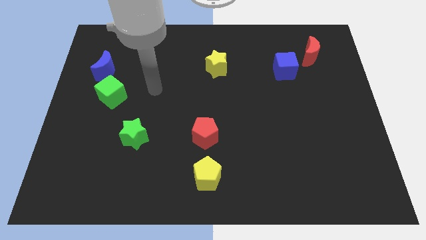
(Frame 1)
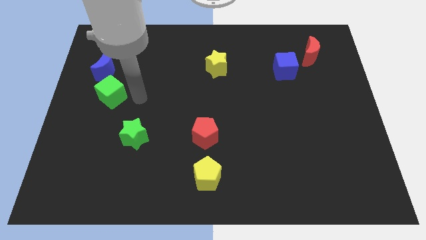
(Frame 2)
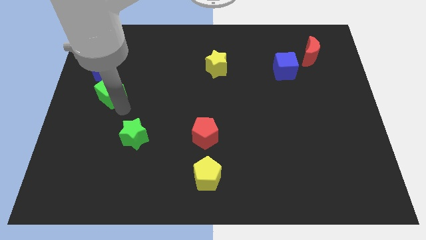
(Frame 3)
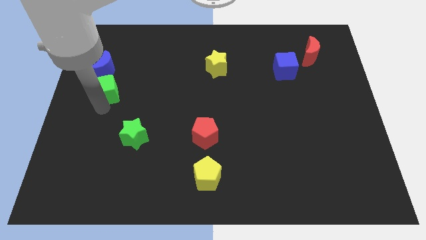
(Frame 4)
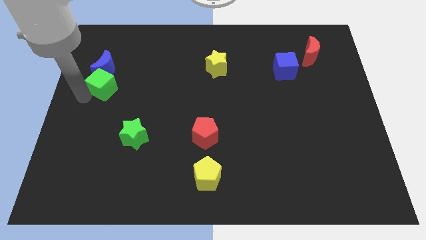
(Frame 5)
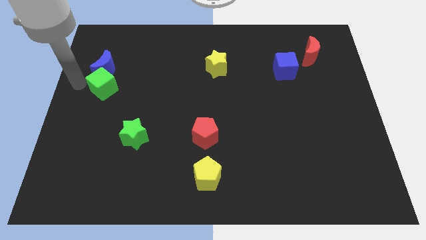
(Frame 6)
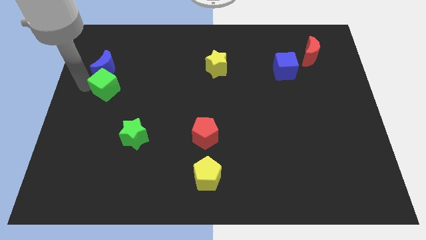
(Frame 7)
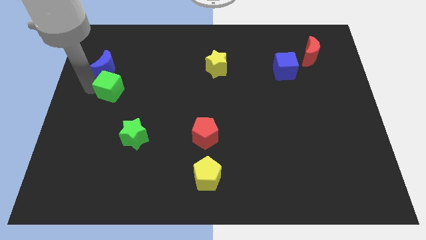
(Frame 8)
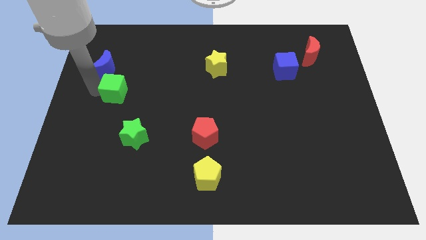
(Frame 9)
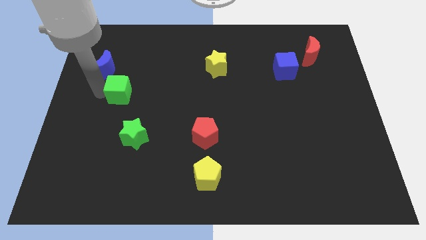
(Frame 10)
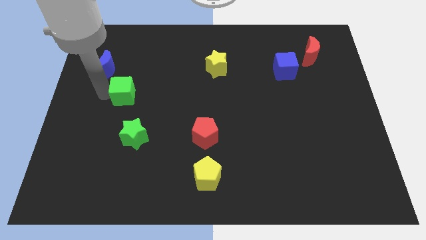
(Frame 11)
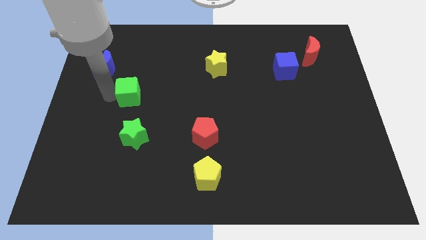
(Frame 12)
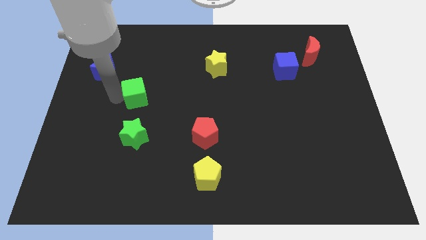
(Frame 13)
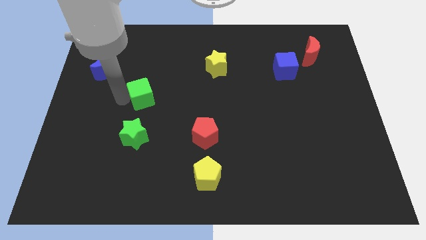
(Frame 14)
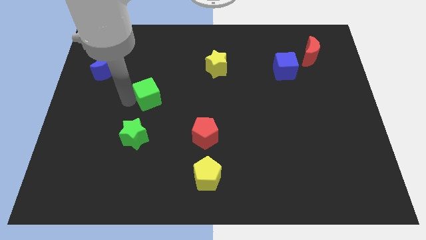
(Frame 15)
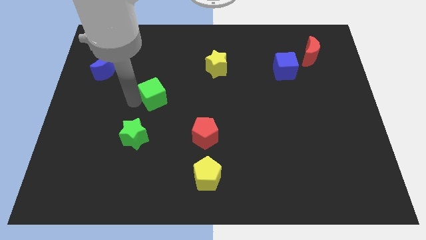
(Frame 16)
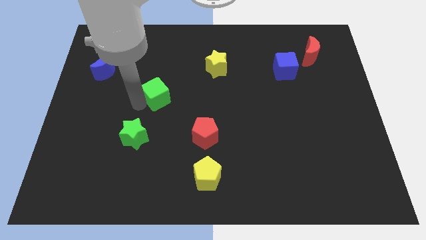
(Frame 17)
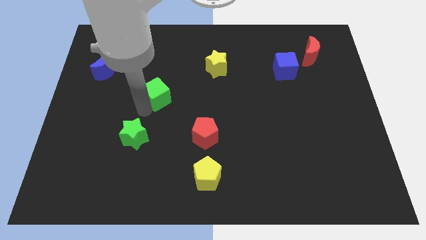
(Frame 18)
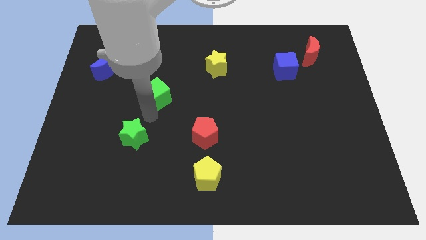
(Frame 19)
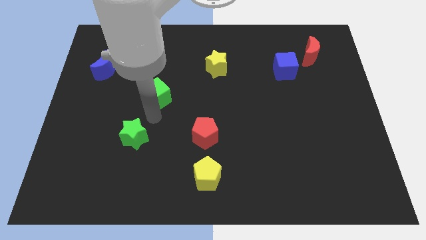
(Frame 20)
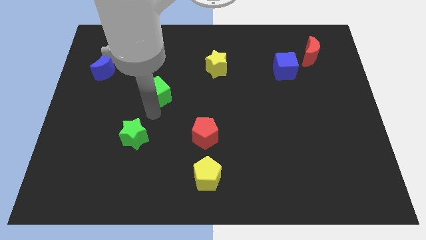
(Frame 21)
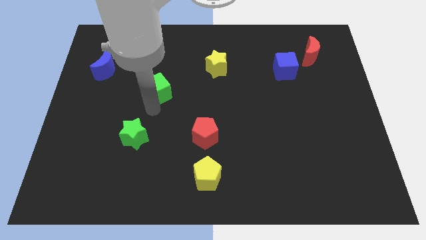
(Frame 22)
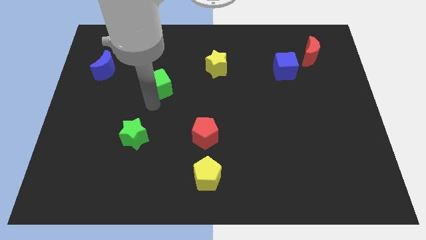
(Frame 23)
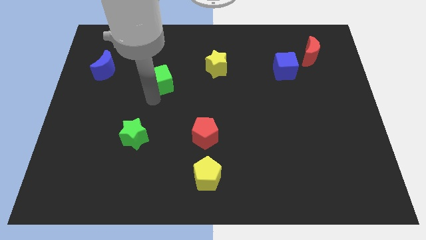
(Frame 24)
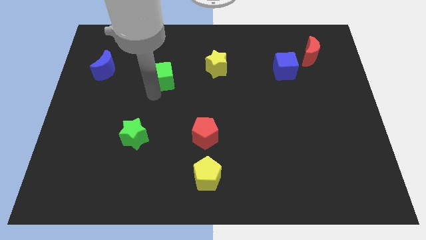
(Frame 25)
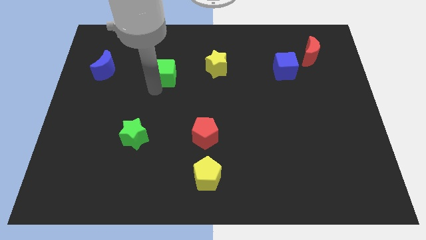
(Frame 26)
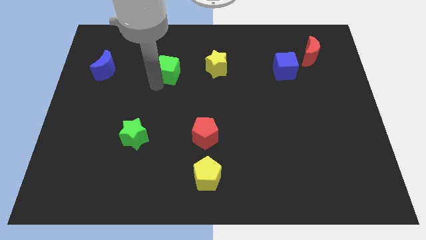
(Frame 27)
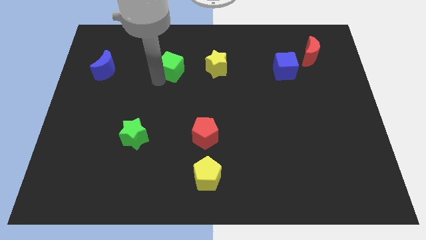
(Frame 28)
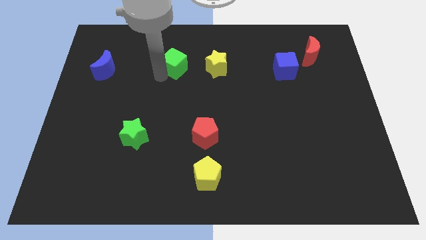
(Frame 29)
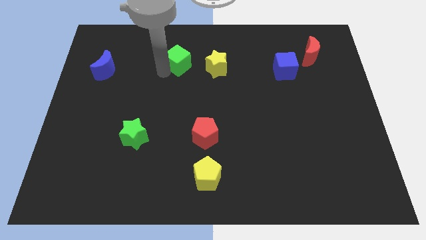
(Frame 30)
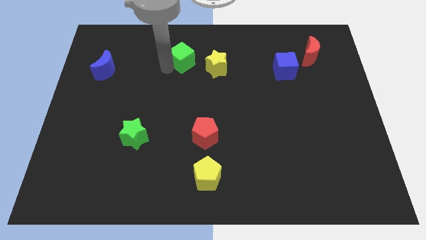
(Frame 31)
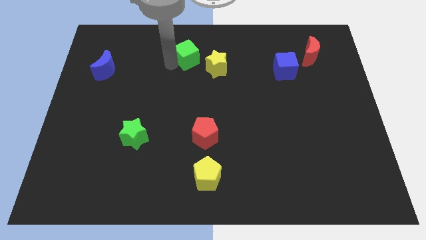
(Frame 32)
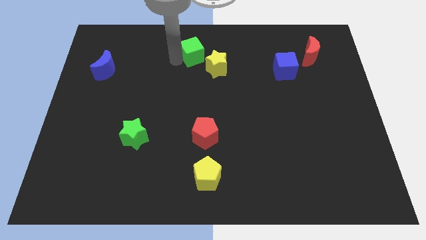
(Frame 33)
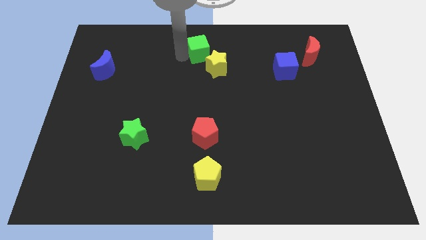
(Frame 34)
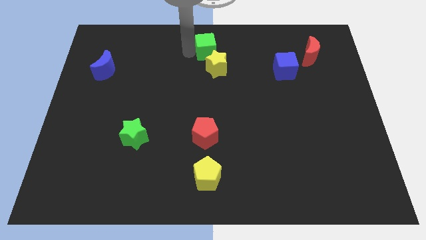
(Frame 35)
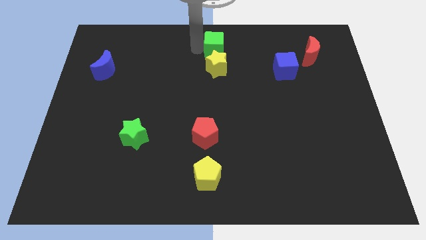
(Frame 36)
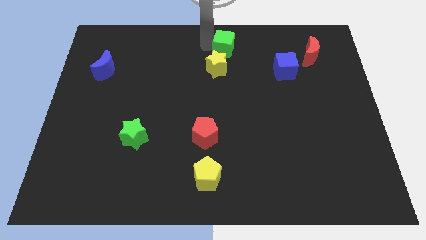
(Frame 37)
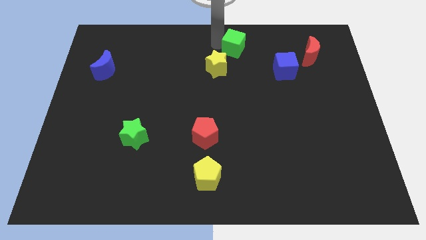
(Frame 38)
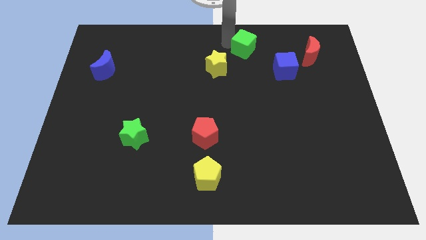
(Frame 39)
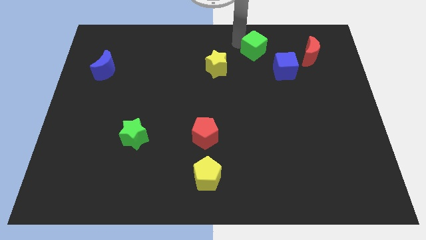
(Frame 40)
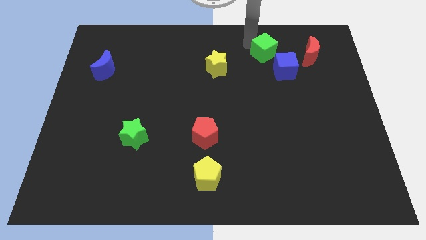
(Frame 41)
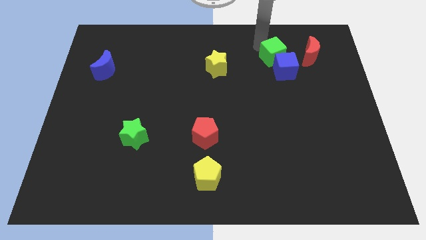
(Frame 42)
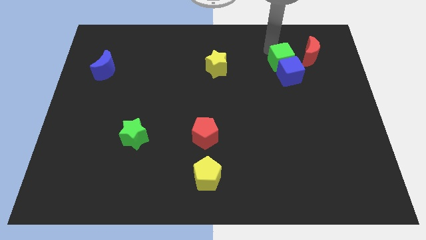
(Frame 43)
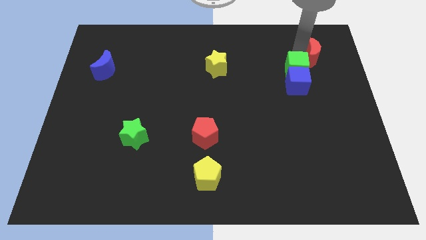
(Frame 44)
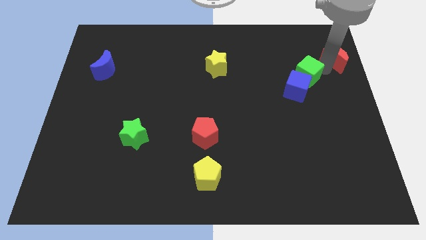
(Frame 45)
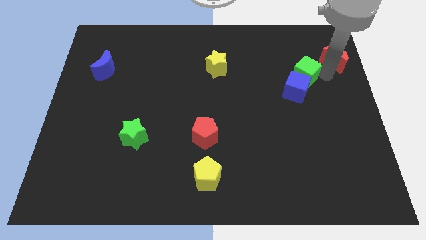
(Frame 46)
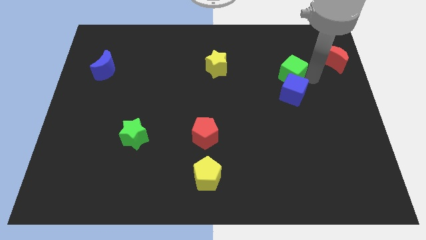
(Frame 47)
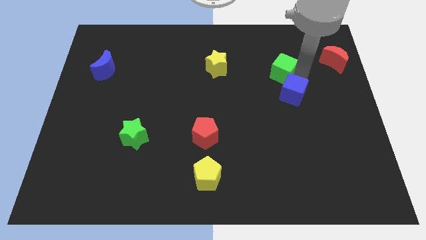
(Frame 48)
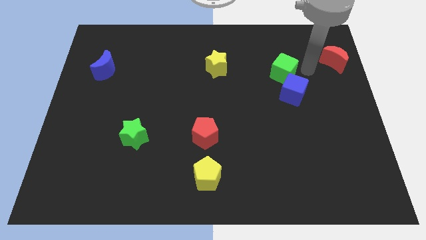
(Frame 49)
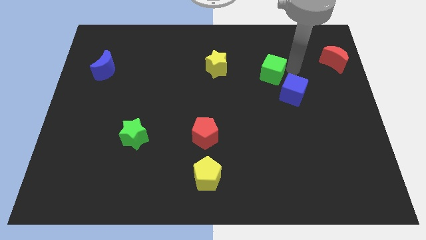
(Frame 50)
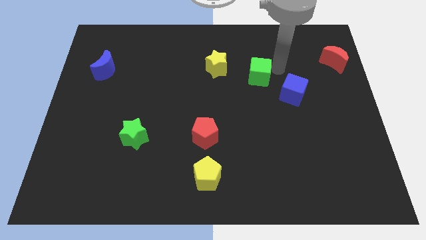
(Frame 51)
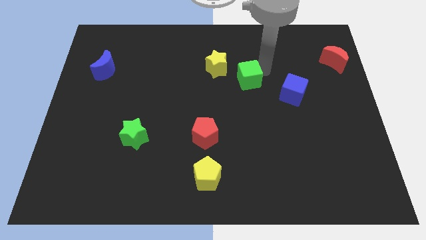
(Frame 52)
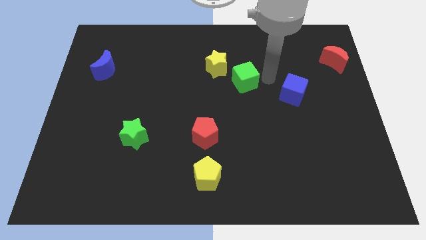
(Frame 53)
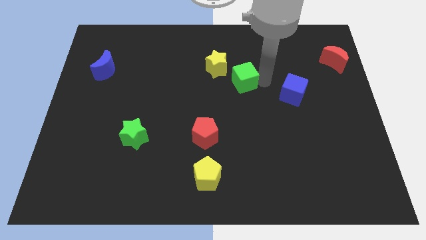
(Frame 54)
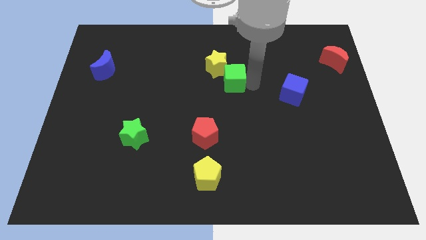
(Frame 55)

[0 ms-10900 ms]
move the green cube next to the yellow star

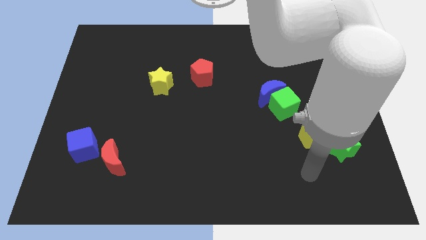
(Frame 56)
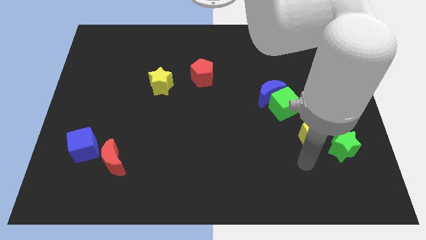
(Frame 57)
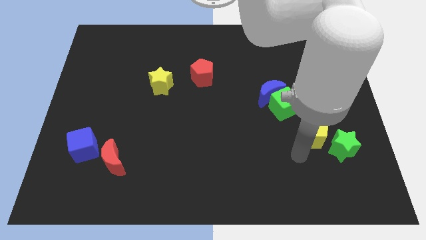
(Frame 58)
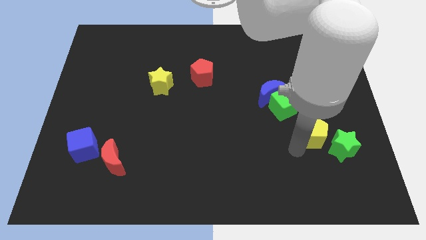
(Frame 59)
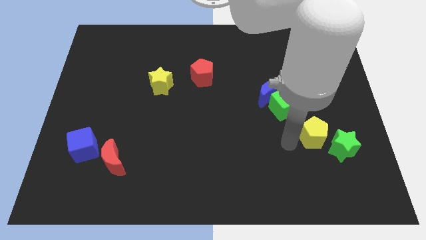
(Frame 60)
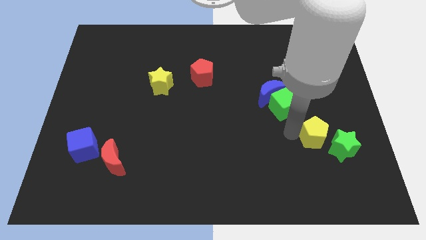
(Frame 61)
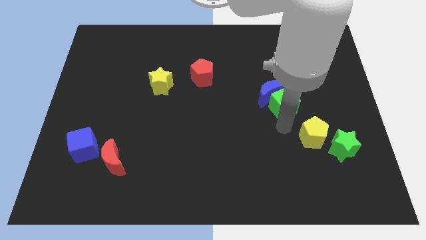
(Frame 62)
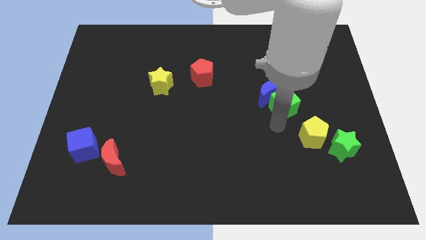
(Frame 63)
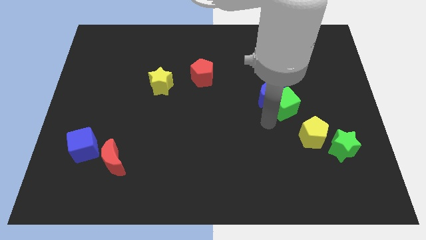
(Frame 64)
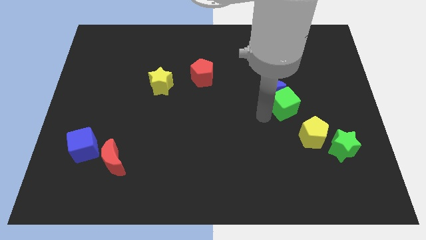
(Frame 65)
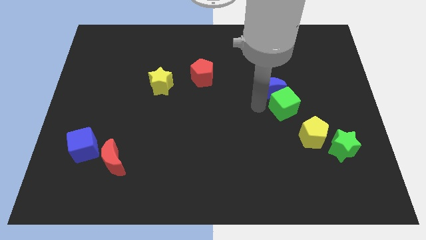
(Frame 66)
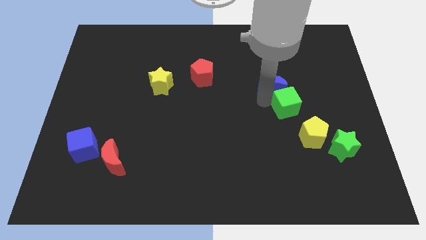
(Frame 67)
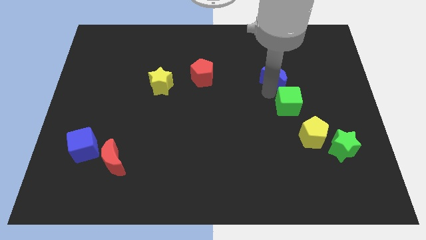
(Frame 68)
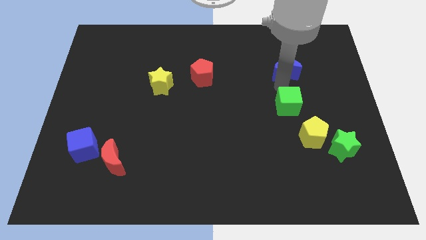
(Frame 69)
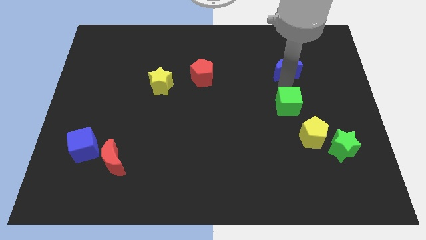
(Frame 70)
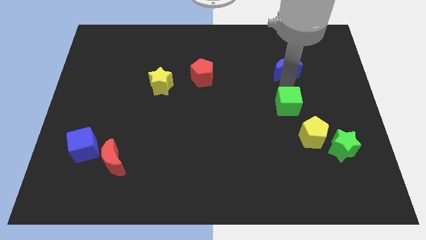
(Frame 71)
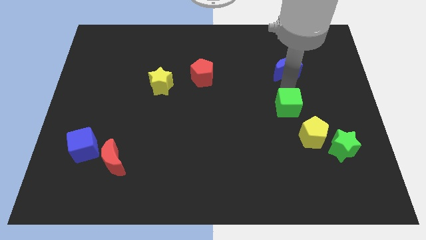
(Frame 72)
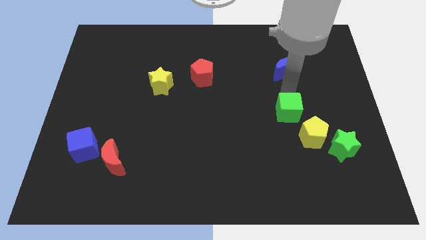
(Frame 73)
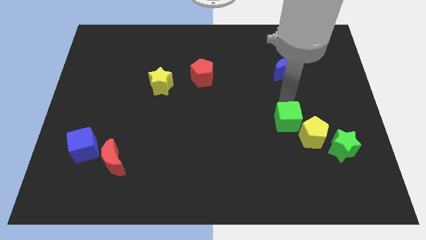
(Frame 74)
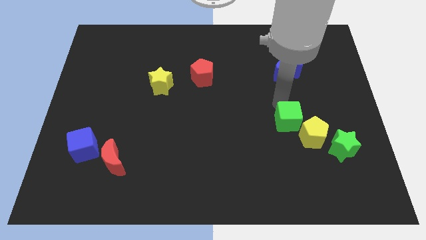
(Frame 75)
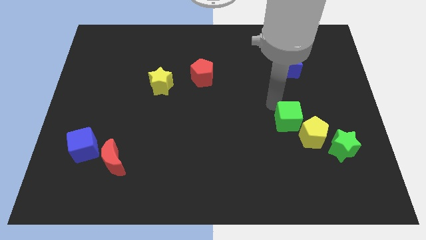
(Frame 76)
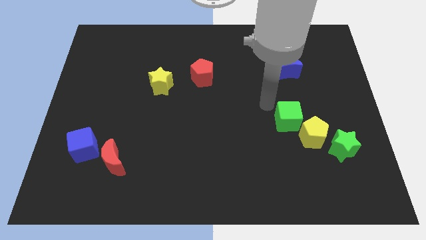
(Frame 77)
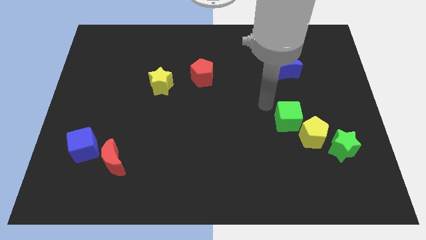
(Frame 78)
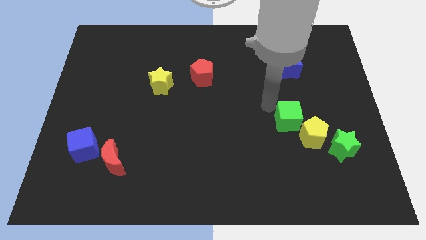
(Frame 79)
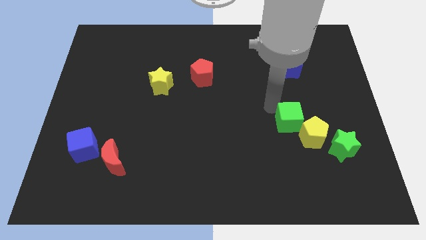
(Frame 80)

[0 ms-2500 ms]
move the green cube next to the yellow pentagon
